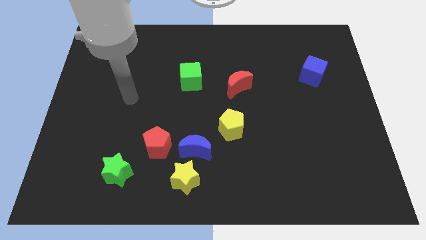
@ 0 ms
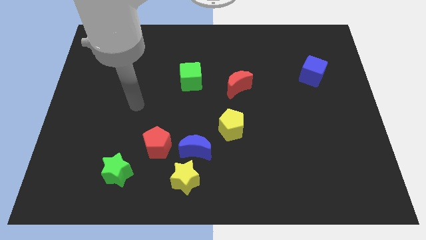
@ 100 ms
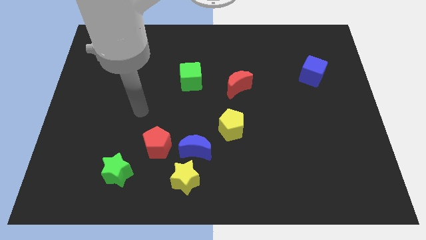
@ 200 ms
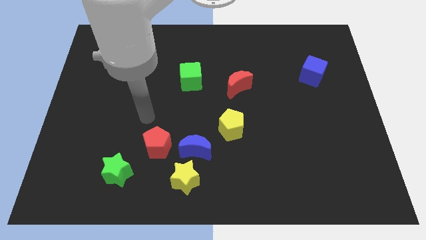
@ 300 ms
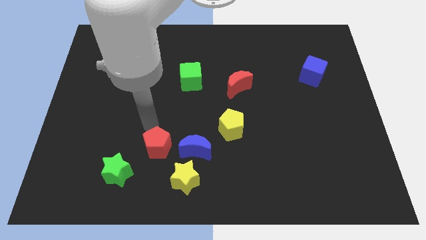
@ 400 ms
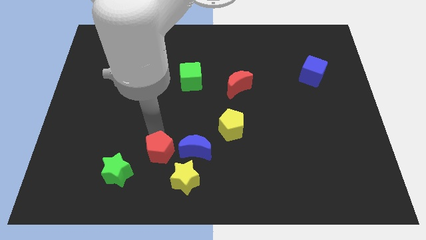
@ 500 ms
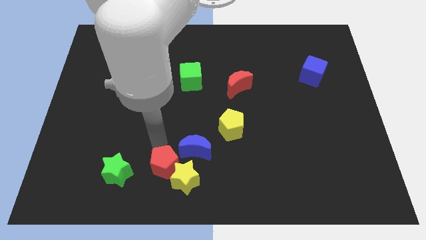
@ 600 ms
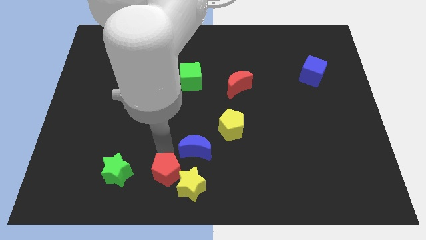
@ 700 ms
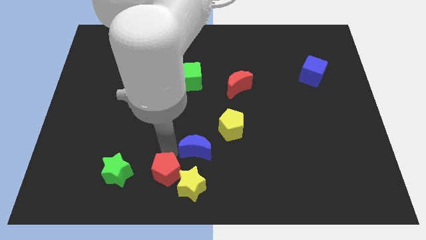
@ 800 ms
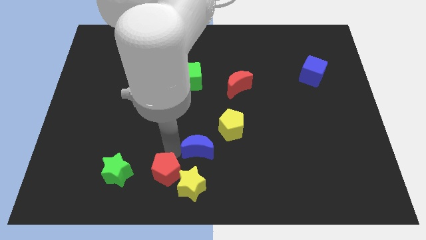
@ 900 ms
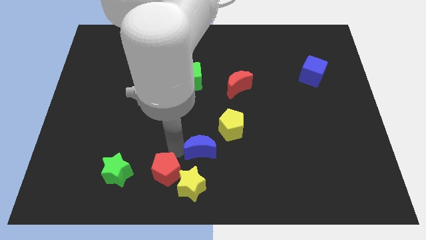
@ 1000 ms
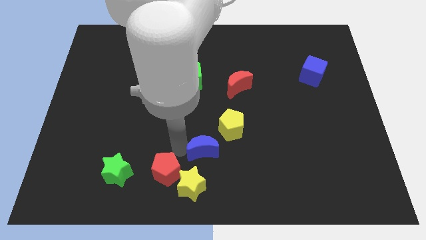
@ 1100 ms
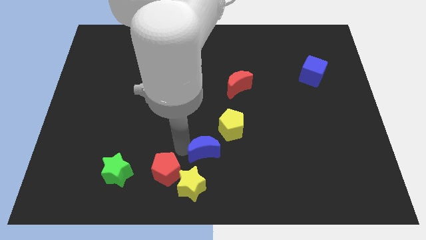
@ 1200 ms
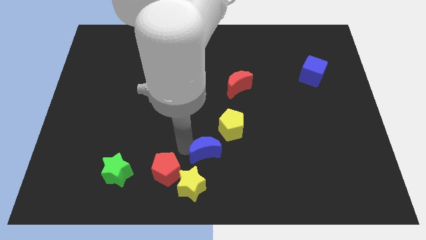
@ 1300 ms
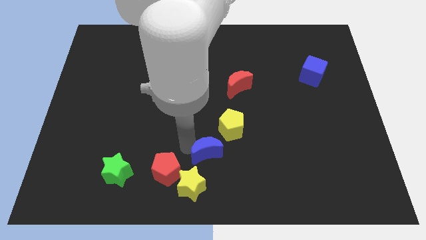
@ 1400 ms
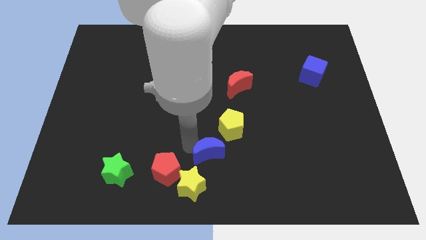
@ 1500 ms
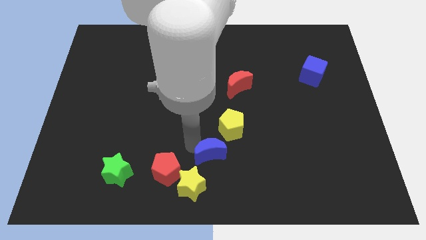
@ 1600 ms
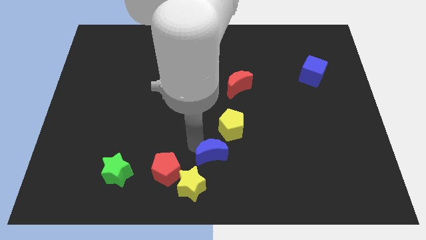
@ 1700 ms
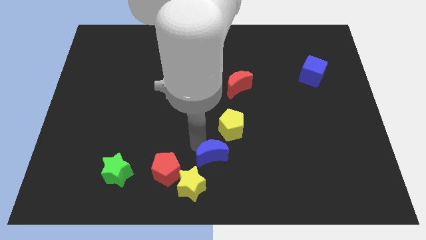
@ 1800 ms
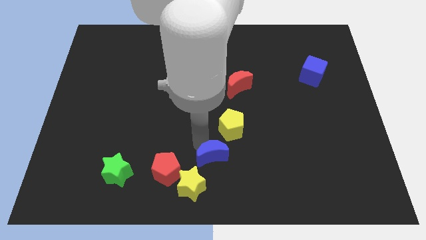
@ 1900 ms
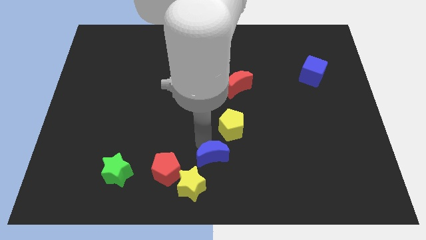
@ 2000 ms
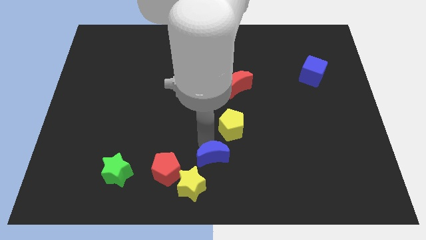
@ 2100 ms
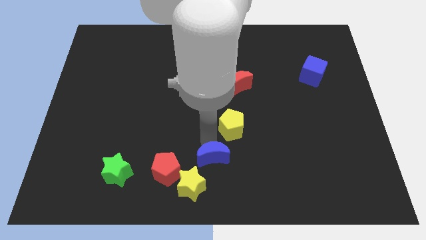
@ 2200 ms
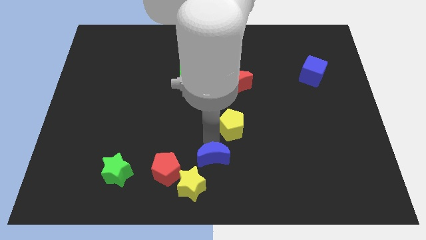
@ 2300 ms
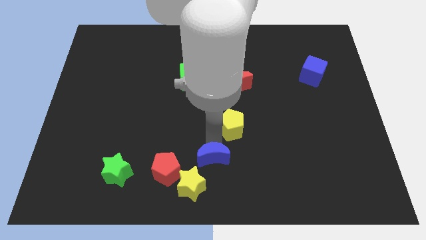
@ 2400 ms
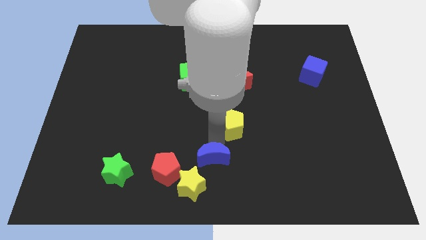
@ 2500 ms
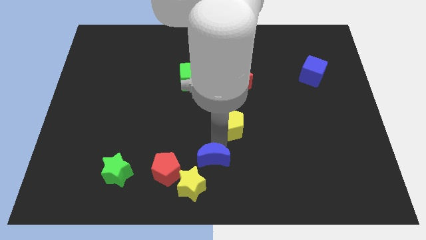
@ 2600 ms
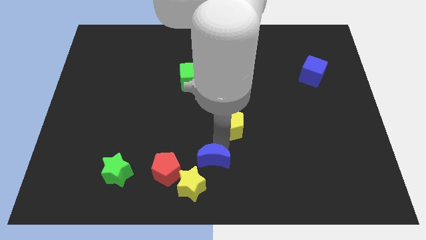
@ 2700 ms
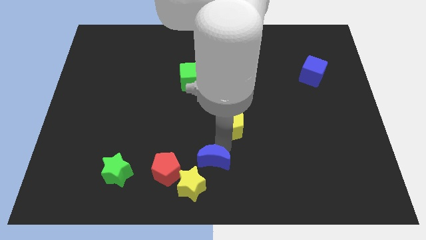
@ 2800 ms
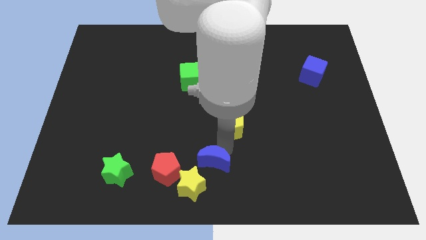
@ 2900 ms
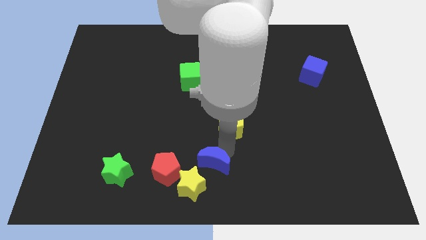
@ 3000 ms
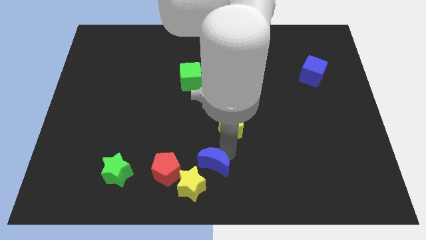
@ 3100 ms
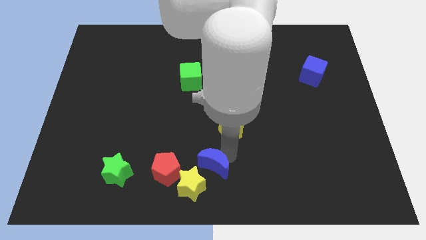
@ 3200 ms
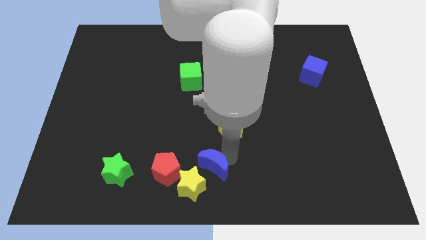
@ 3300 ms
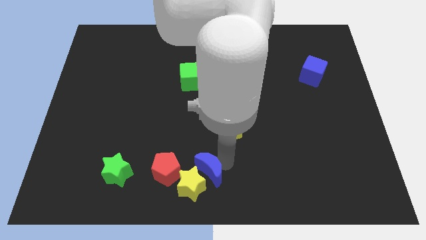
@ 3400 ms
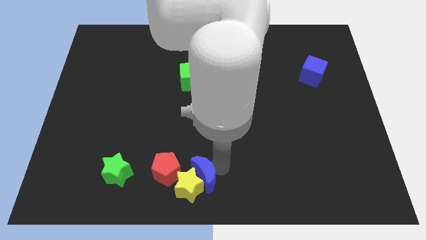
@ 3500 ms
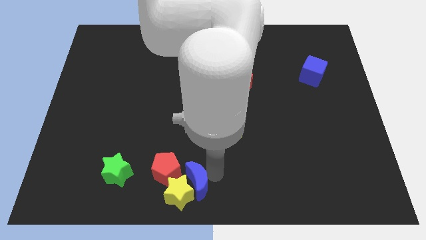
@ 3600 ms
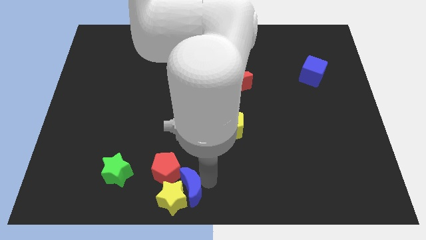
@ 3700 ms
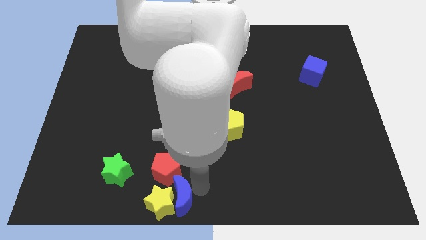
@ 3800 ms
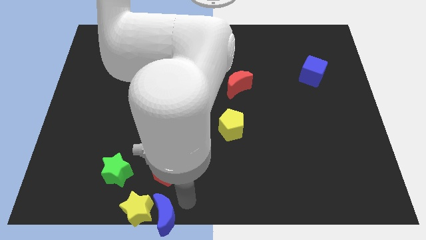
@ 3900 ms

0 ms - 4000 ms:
pull the blue moon apart from the yellow star, red pentagon, and yellow pentagon

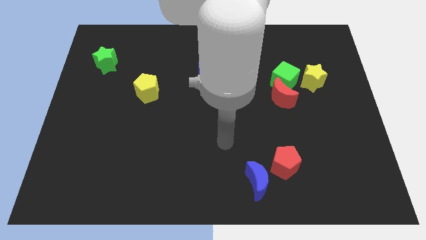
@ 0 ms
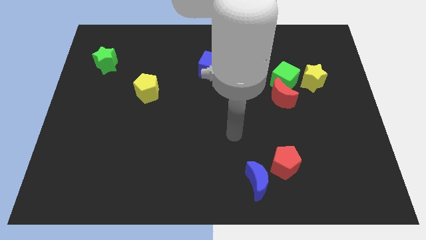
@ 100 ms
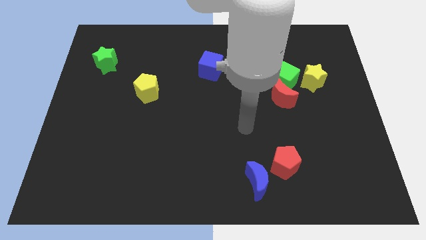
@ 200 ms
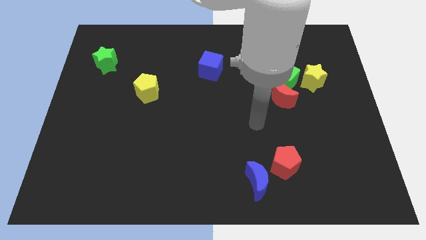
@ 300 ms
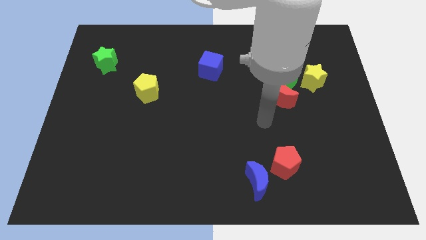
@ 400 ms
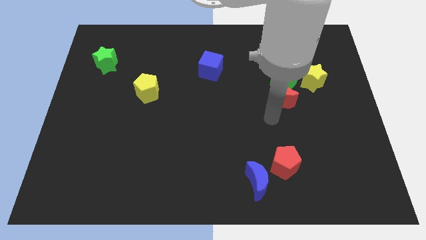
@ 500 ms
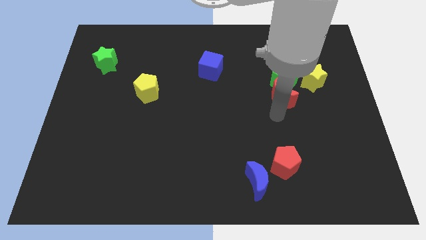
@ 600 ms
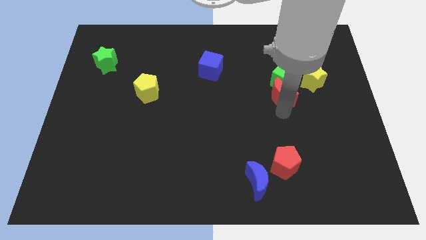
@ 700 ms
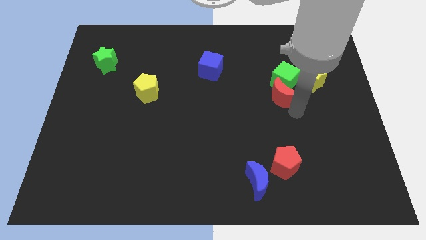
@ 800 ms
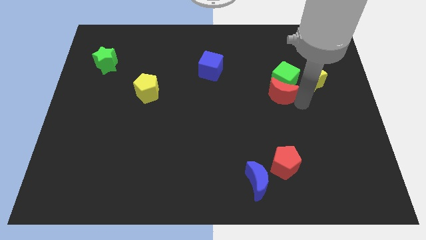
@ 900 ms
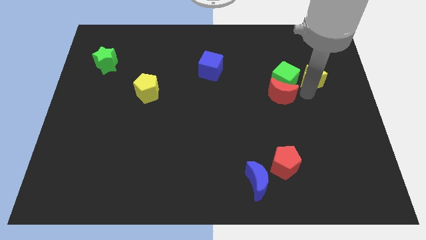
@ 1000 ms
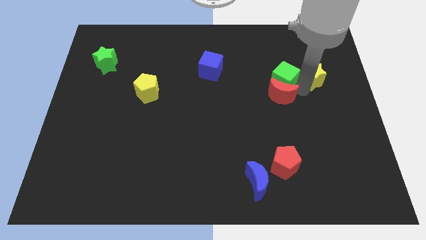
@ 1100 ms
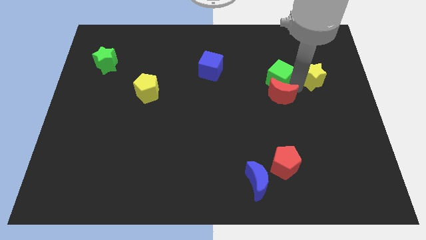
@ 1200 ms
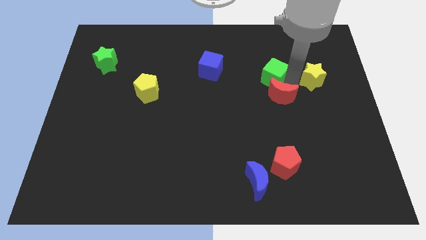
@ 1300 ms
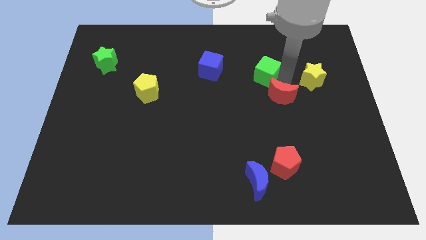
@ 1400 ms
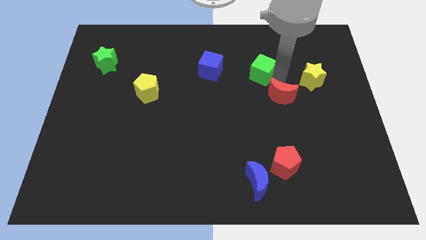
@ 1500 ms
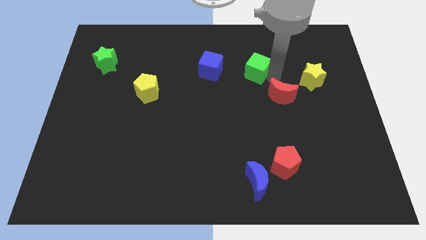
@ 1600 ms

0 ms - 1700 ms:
move the green cube away from the red moon and yellow star

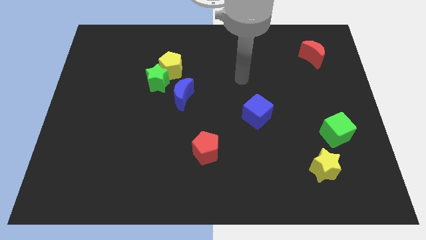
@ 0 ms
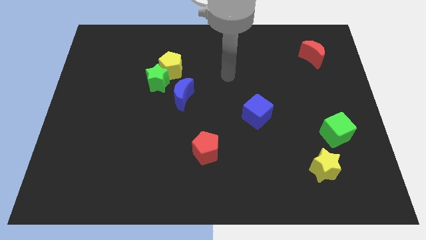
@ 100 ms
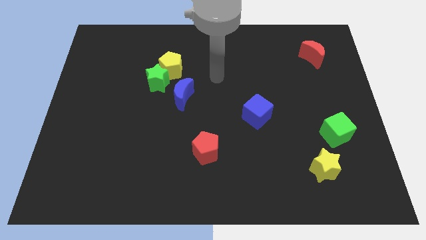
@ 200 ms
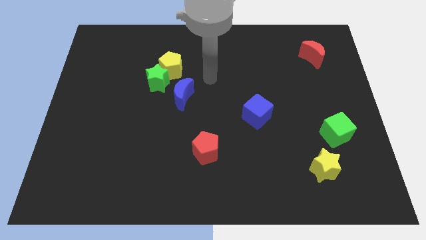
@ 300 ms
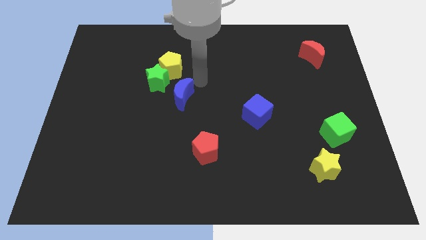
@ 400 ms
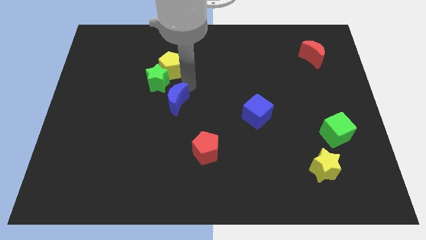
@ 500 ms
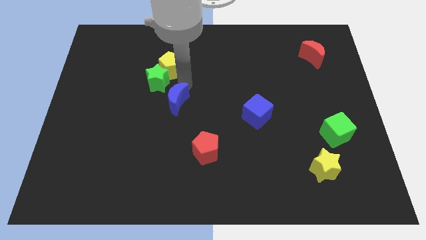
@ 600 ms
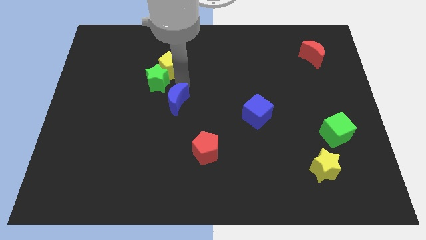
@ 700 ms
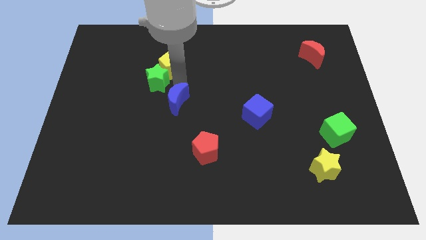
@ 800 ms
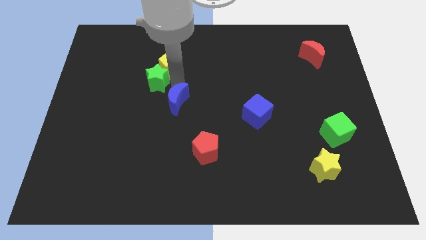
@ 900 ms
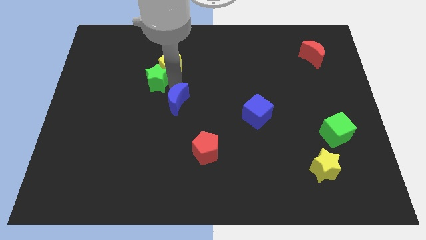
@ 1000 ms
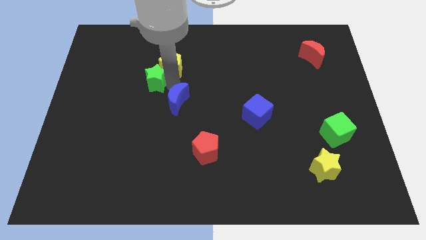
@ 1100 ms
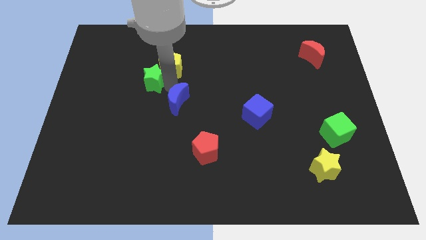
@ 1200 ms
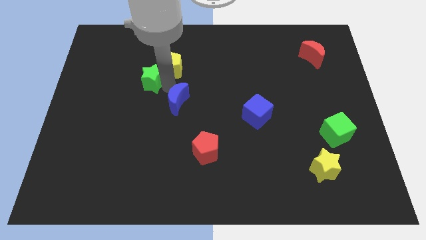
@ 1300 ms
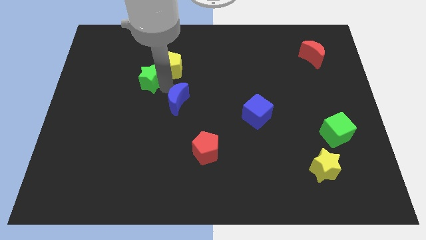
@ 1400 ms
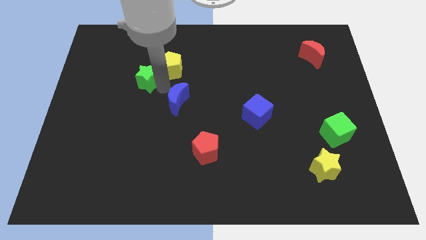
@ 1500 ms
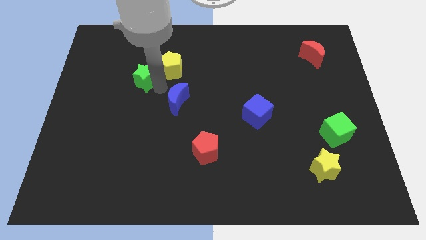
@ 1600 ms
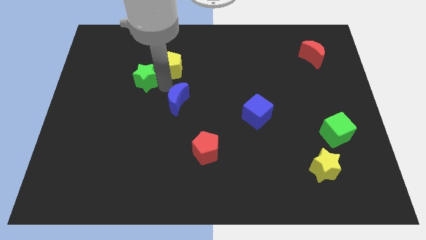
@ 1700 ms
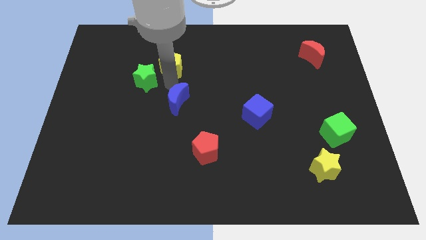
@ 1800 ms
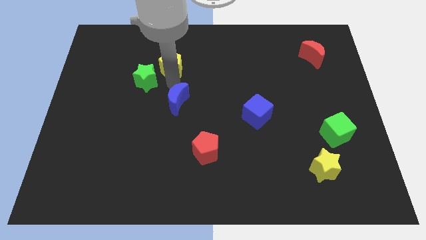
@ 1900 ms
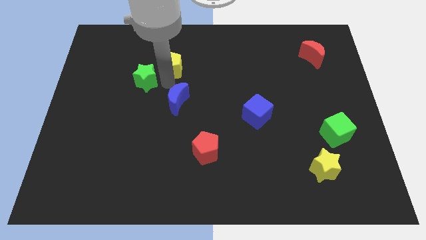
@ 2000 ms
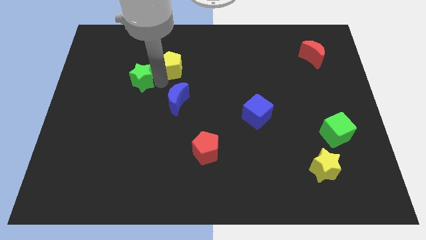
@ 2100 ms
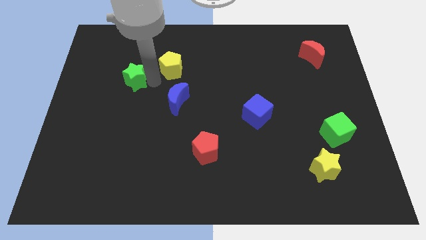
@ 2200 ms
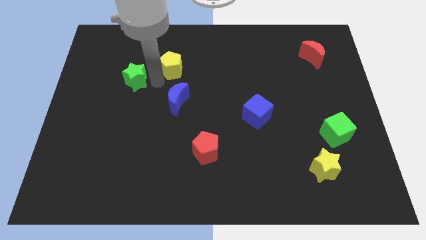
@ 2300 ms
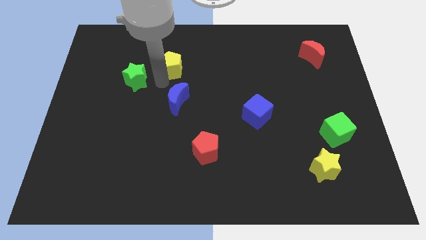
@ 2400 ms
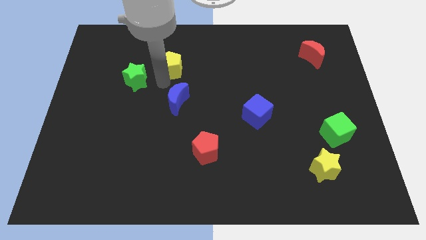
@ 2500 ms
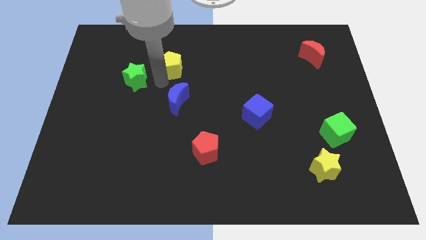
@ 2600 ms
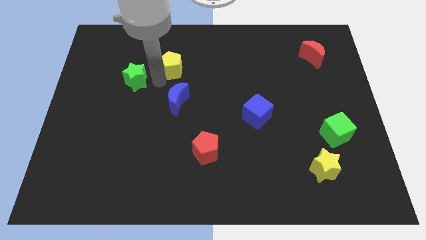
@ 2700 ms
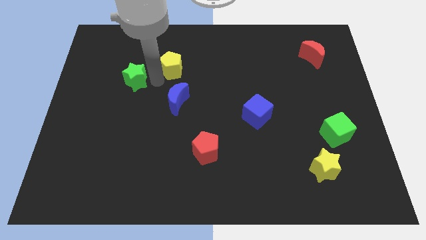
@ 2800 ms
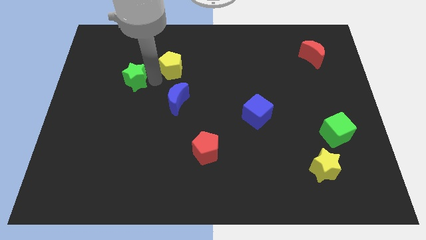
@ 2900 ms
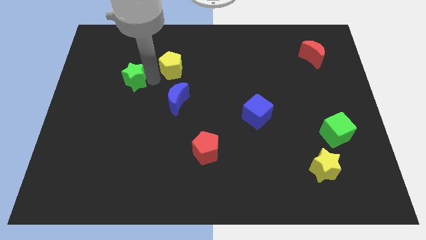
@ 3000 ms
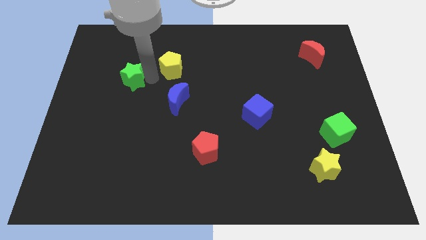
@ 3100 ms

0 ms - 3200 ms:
pull the green star apart from the yellow pentagon and blue moon

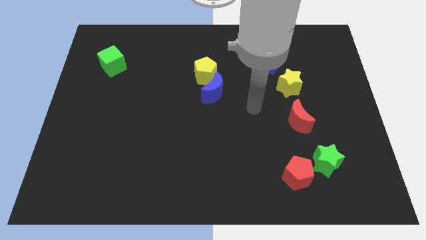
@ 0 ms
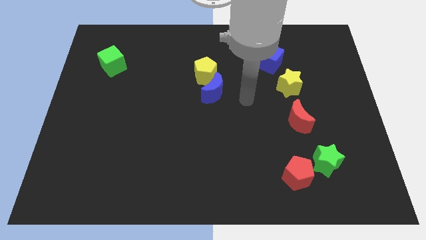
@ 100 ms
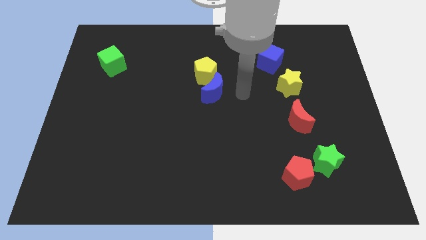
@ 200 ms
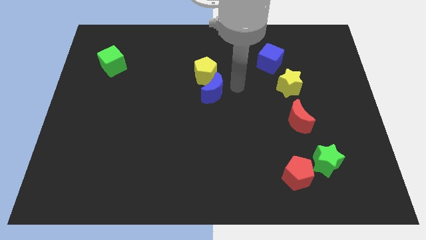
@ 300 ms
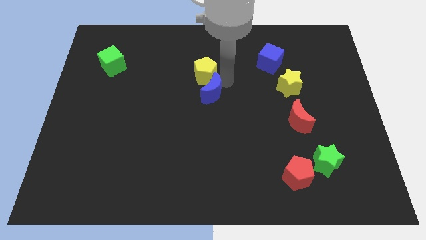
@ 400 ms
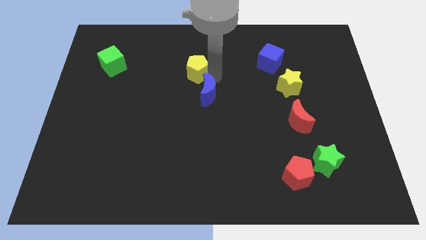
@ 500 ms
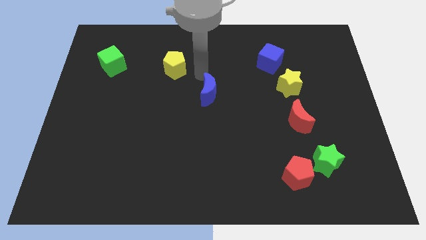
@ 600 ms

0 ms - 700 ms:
pull the blue moon apart from the yellow pentagon
